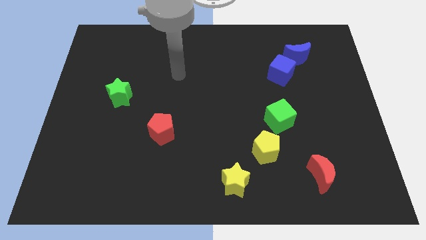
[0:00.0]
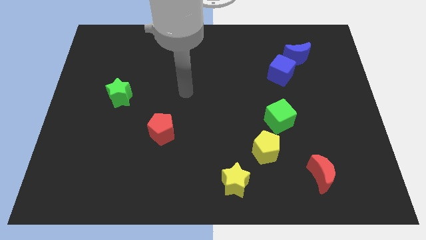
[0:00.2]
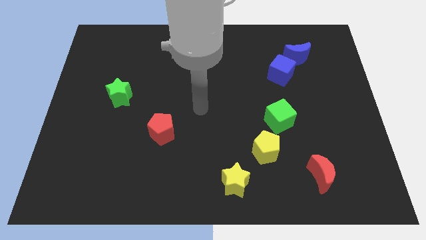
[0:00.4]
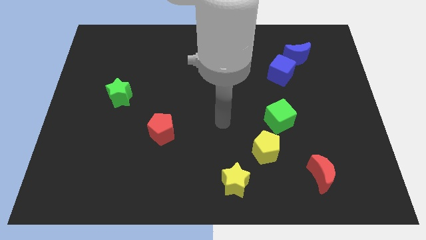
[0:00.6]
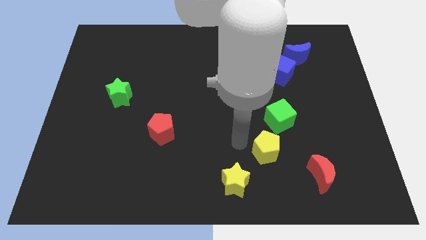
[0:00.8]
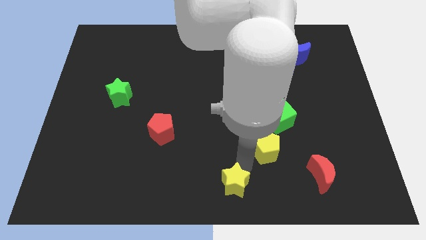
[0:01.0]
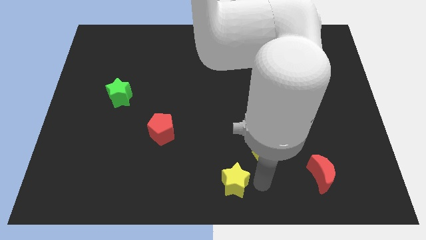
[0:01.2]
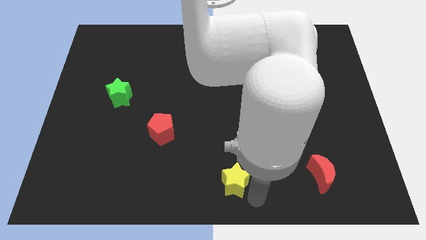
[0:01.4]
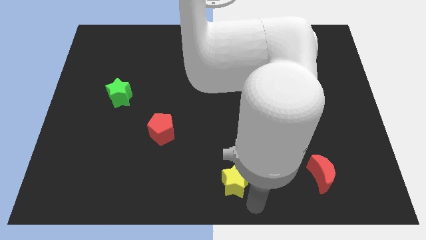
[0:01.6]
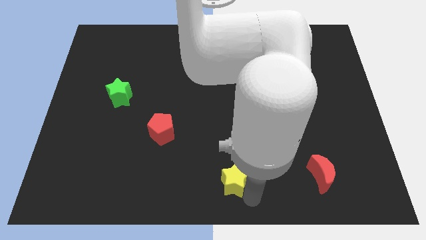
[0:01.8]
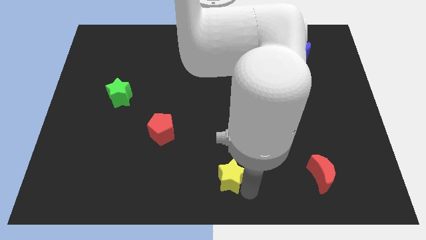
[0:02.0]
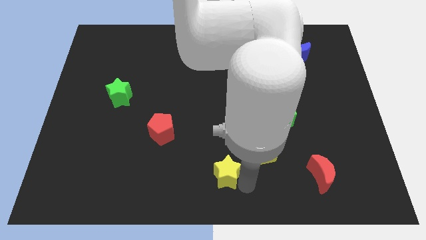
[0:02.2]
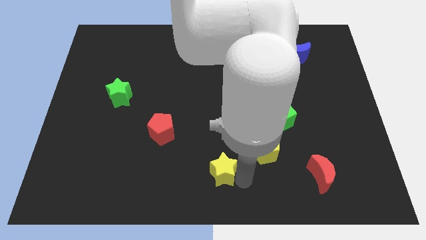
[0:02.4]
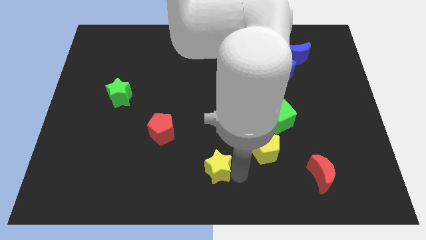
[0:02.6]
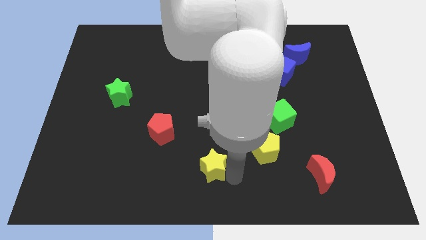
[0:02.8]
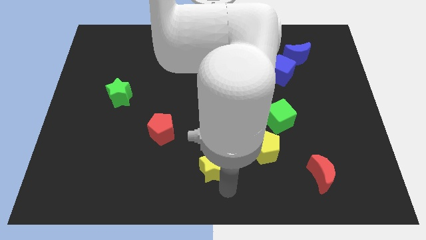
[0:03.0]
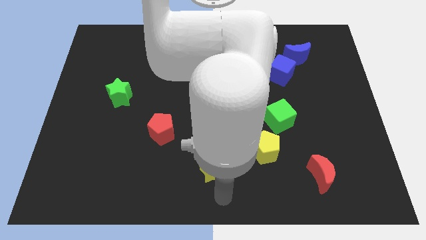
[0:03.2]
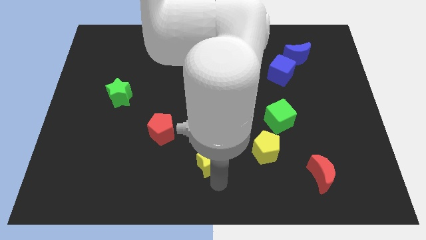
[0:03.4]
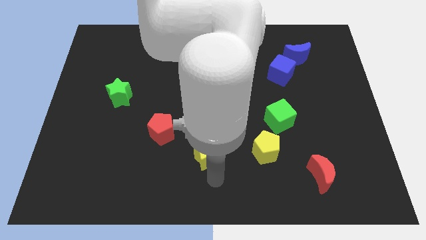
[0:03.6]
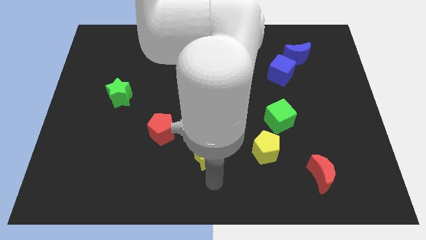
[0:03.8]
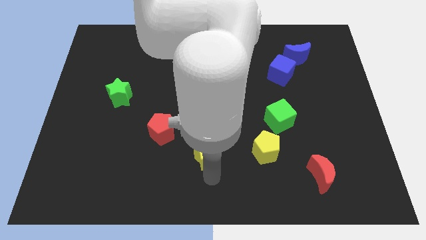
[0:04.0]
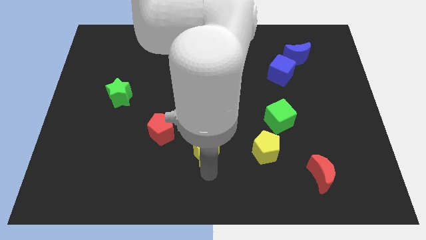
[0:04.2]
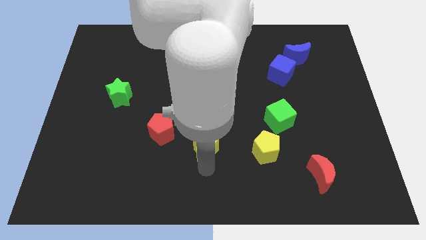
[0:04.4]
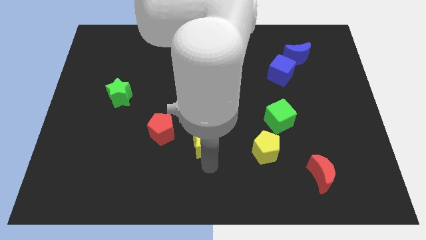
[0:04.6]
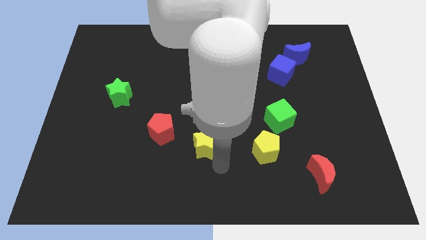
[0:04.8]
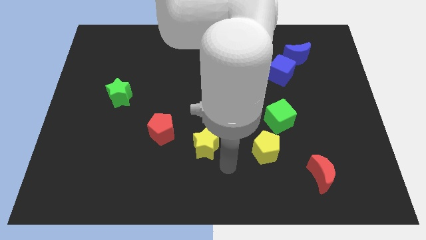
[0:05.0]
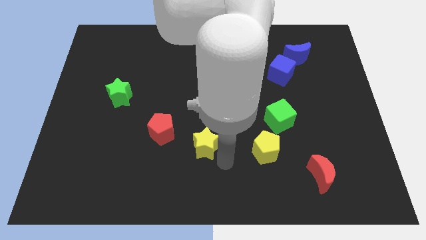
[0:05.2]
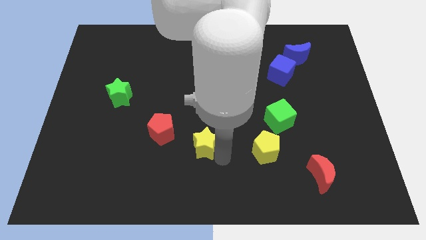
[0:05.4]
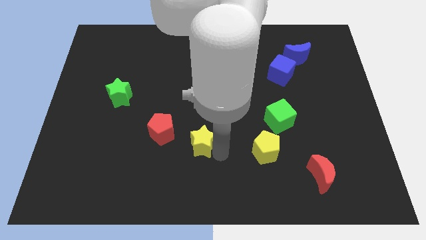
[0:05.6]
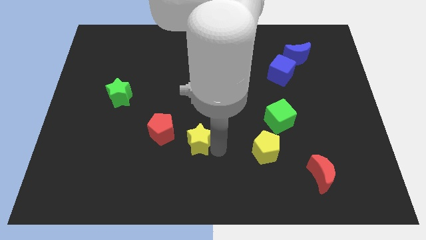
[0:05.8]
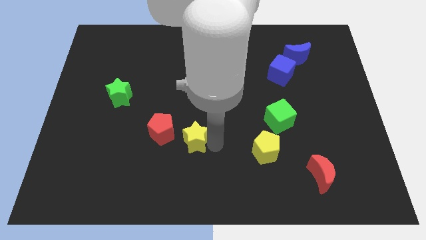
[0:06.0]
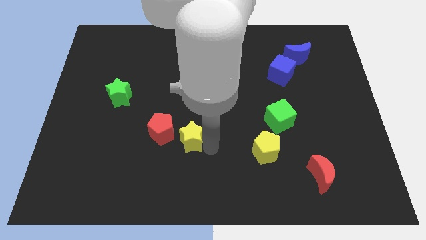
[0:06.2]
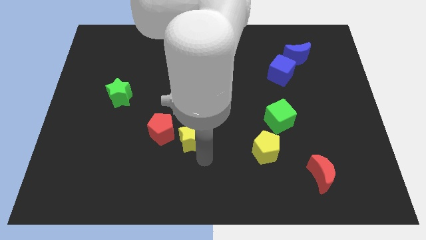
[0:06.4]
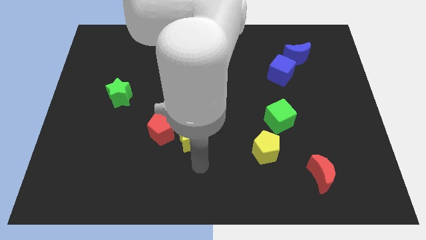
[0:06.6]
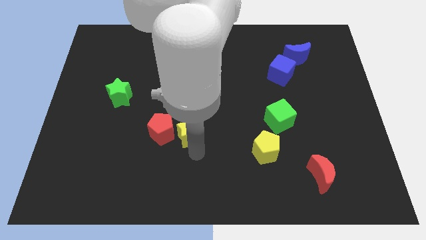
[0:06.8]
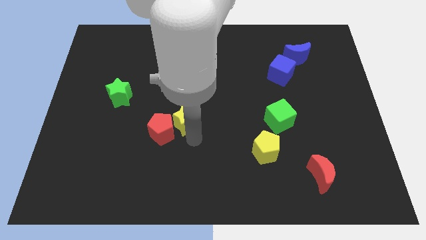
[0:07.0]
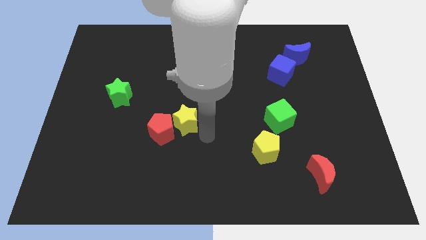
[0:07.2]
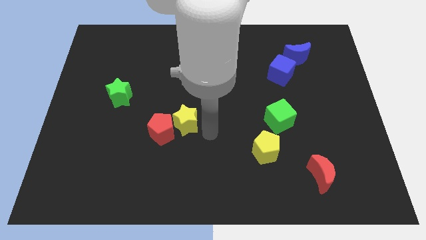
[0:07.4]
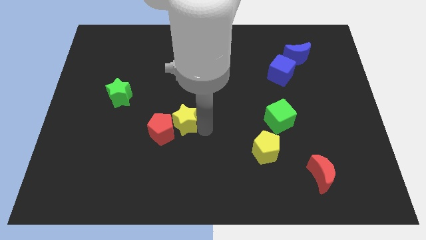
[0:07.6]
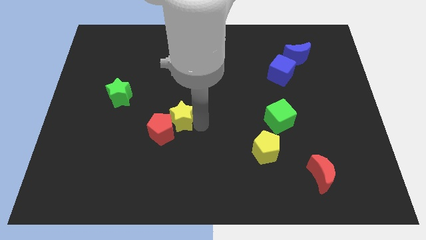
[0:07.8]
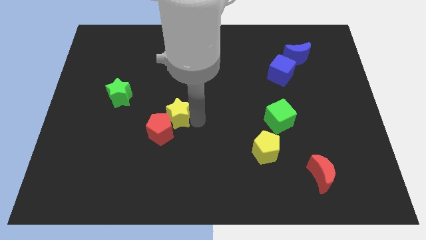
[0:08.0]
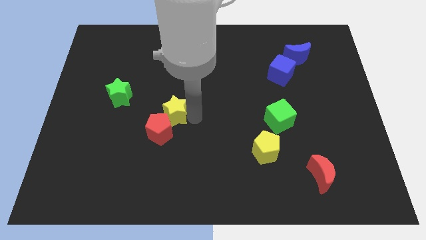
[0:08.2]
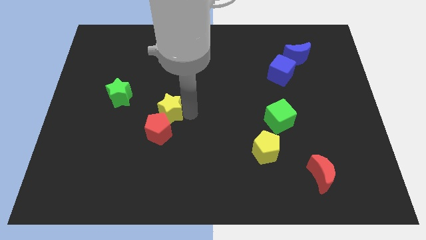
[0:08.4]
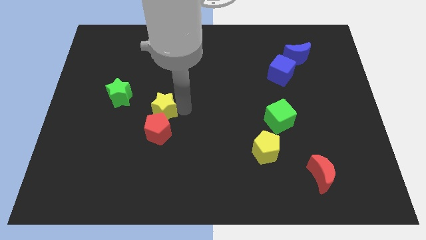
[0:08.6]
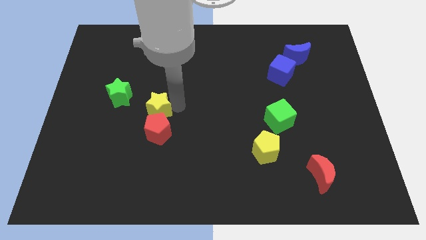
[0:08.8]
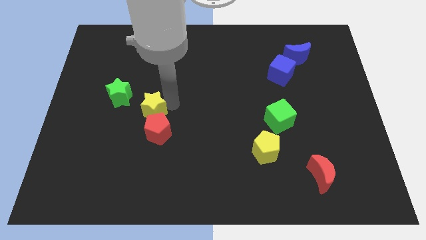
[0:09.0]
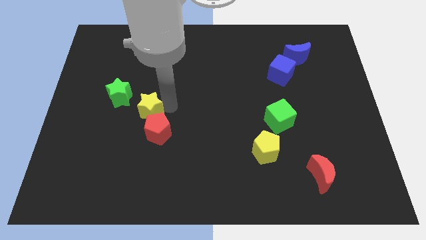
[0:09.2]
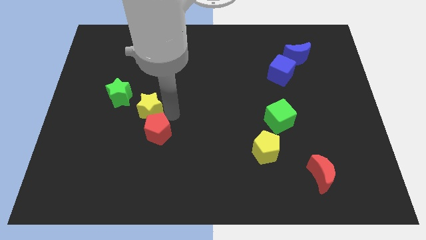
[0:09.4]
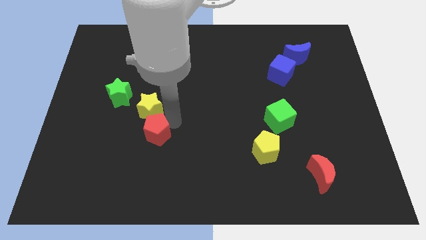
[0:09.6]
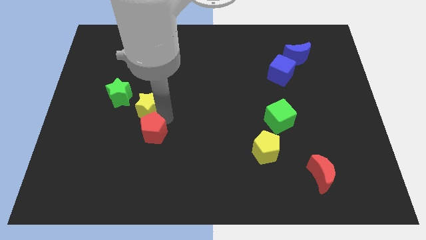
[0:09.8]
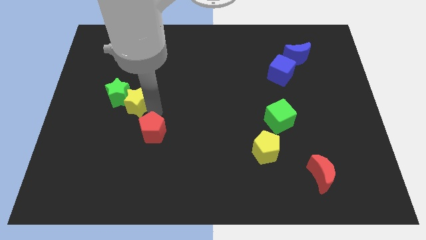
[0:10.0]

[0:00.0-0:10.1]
move the yellow star next to the green star

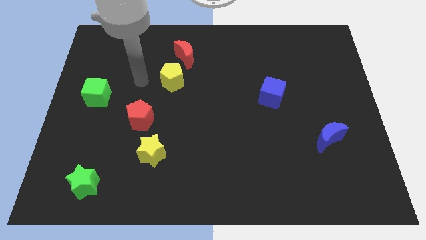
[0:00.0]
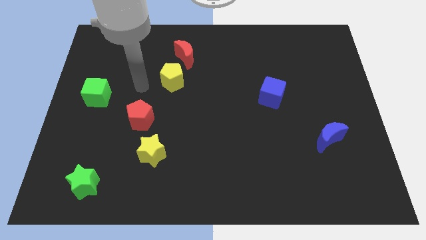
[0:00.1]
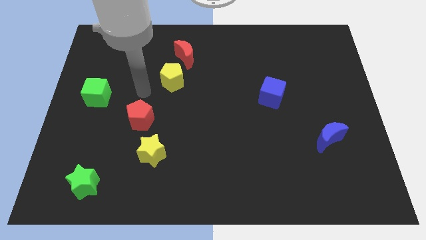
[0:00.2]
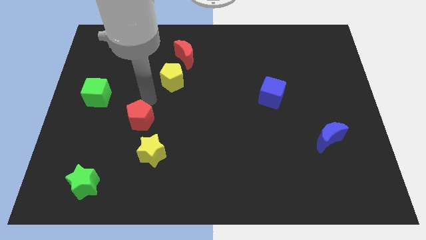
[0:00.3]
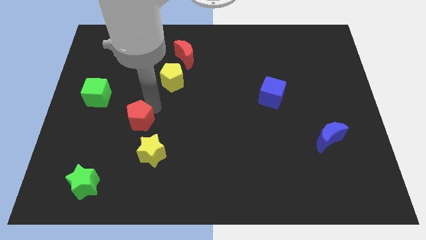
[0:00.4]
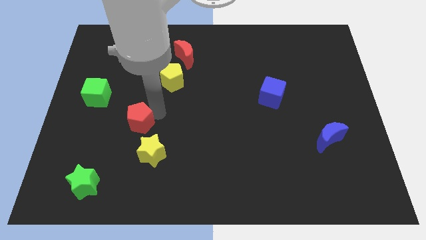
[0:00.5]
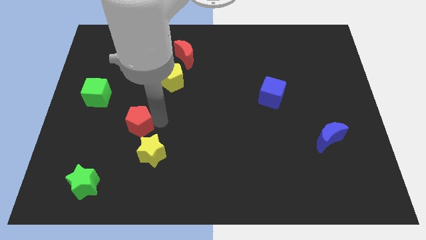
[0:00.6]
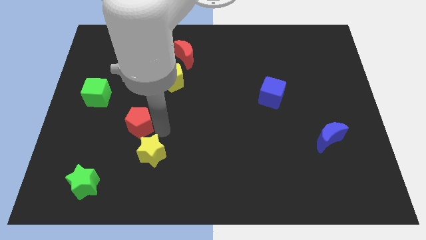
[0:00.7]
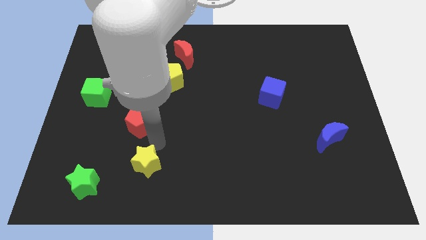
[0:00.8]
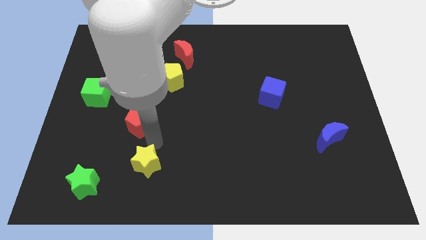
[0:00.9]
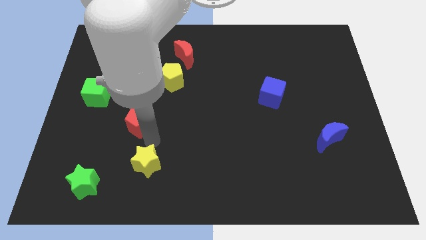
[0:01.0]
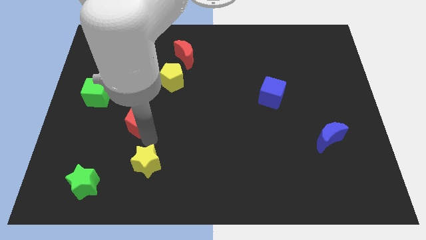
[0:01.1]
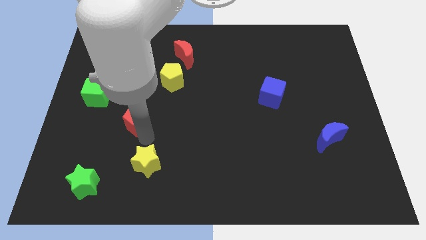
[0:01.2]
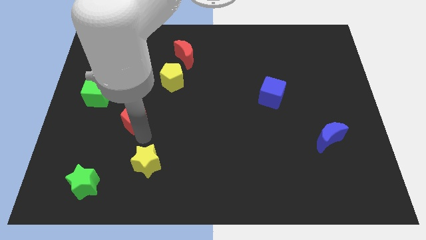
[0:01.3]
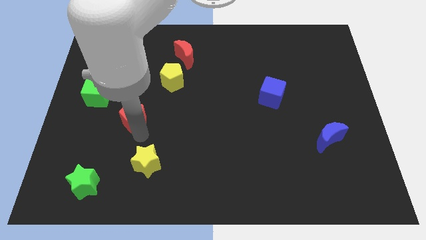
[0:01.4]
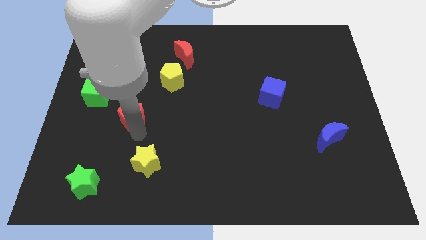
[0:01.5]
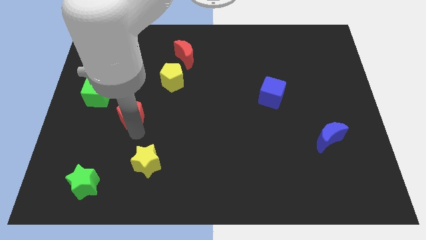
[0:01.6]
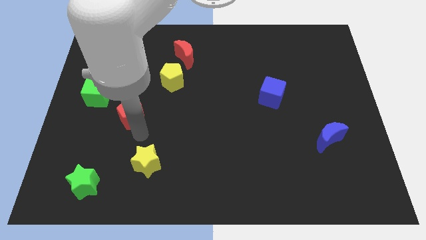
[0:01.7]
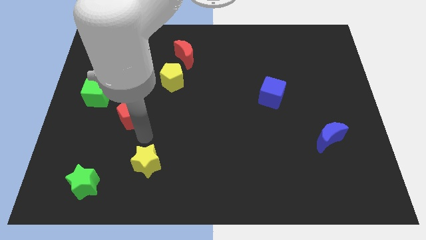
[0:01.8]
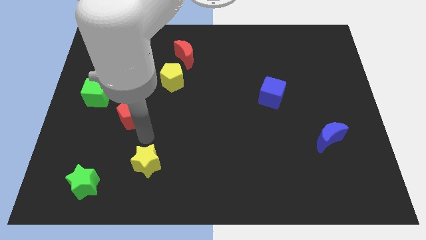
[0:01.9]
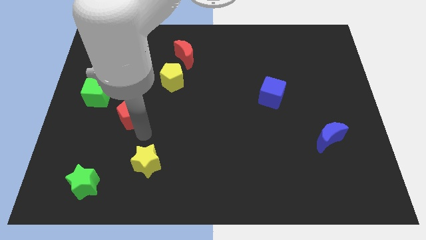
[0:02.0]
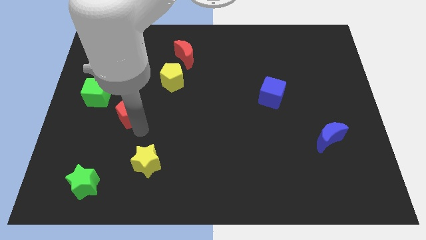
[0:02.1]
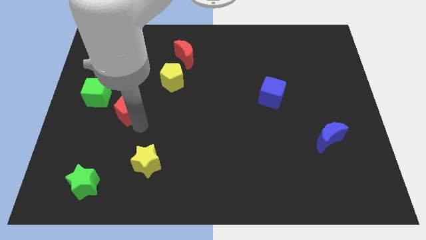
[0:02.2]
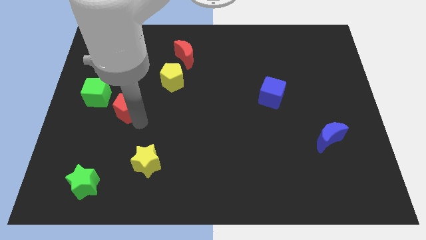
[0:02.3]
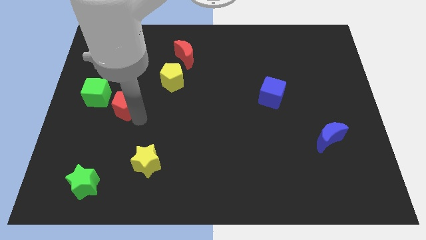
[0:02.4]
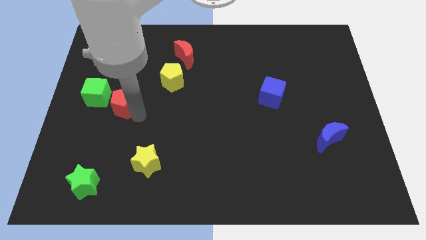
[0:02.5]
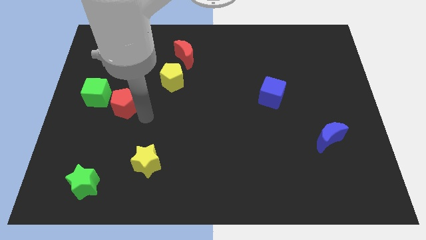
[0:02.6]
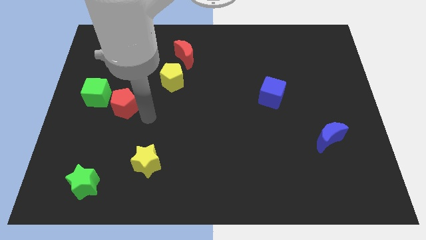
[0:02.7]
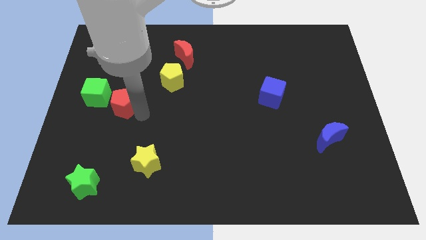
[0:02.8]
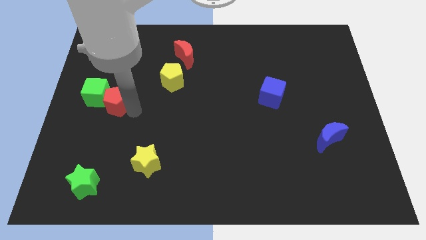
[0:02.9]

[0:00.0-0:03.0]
push the red pentagon towards the green cube
